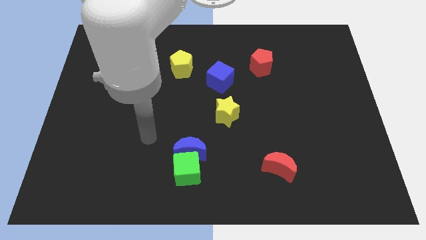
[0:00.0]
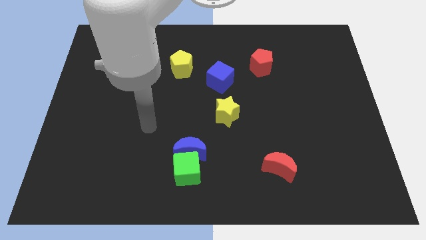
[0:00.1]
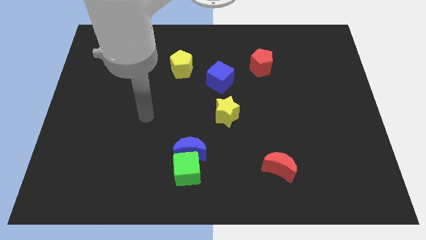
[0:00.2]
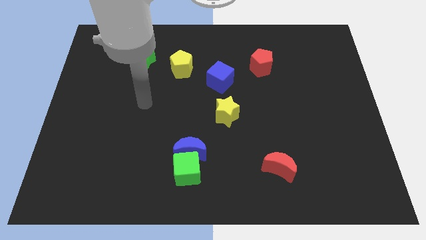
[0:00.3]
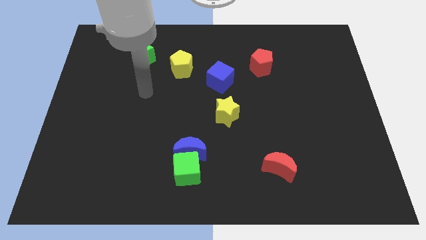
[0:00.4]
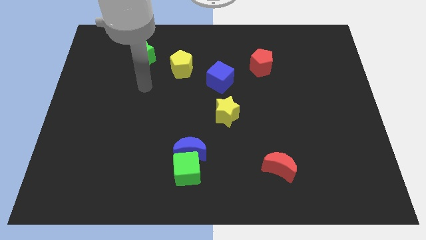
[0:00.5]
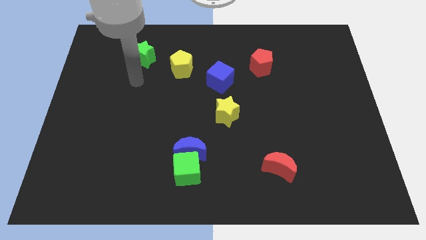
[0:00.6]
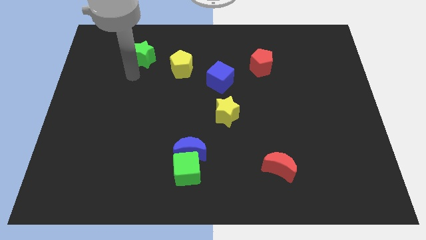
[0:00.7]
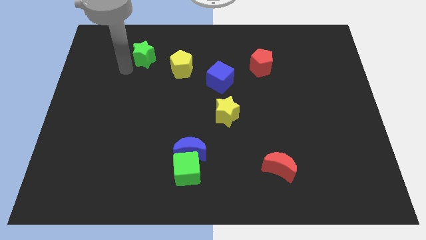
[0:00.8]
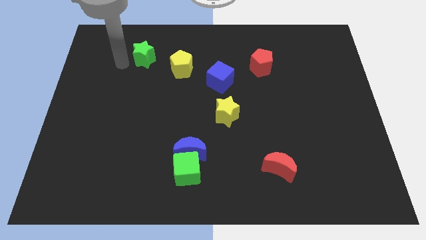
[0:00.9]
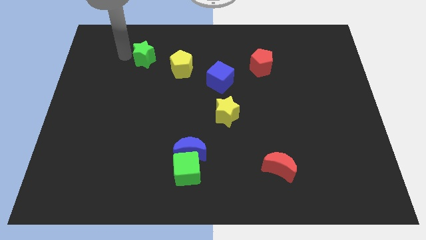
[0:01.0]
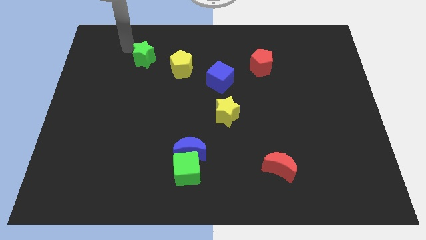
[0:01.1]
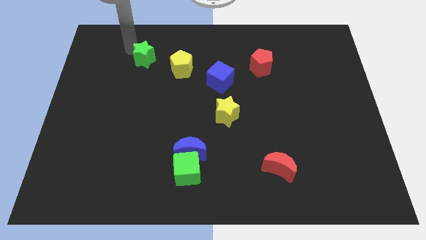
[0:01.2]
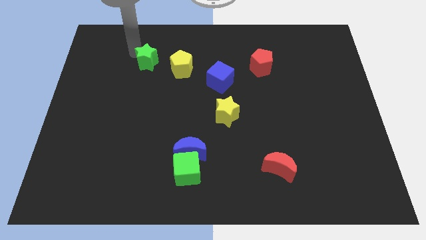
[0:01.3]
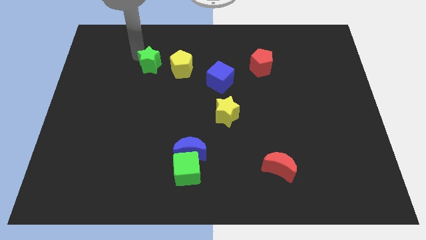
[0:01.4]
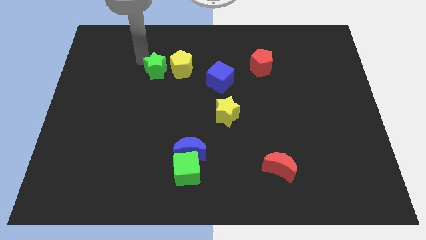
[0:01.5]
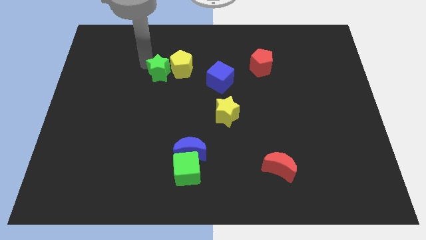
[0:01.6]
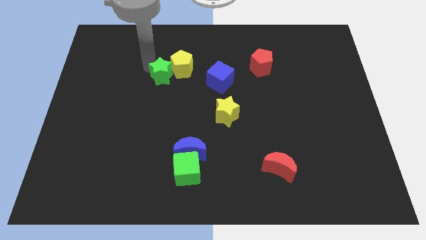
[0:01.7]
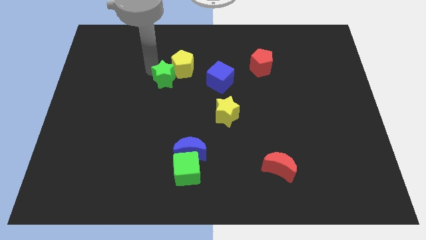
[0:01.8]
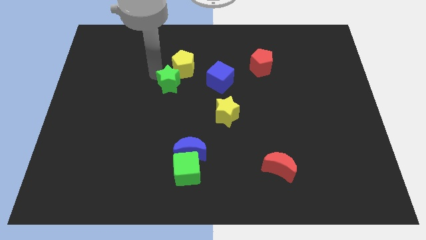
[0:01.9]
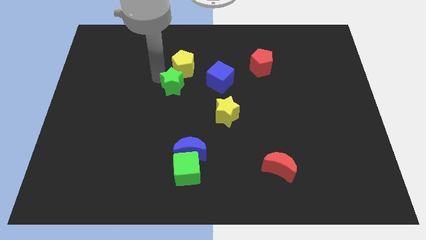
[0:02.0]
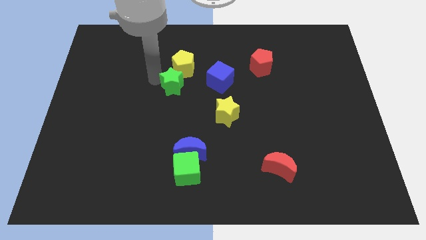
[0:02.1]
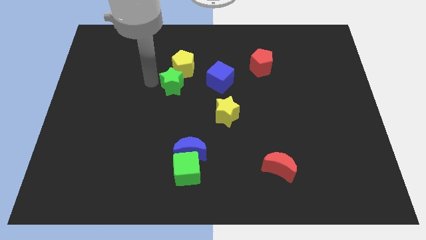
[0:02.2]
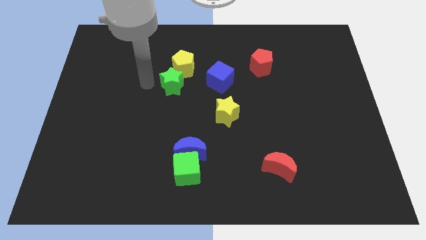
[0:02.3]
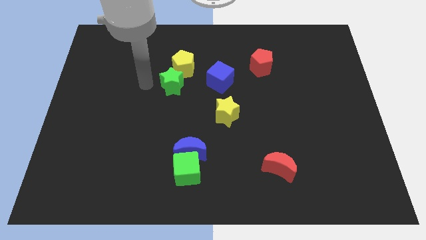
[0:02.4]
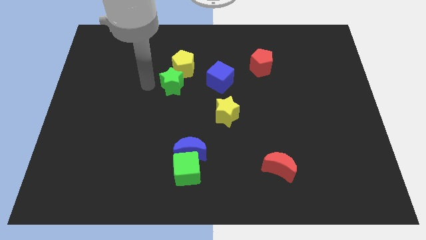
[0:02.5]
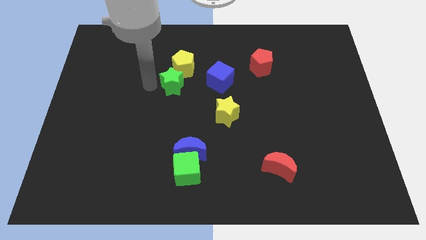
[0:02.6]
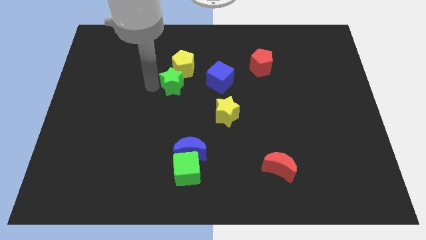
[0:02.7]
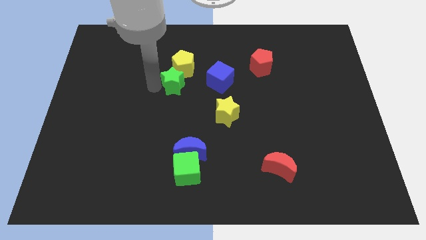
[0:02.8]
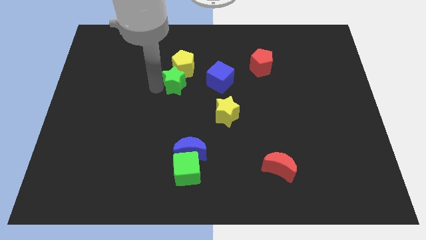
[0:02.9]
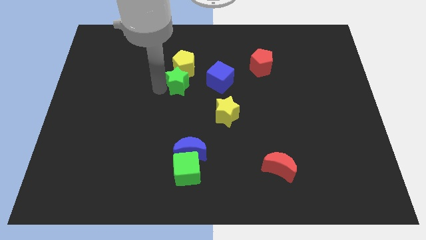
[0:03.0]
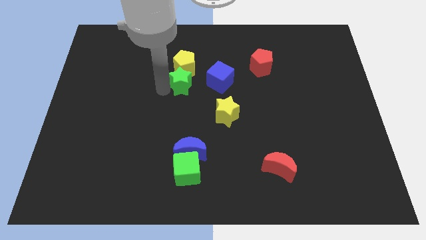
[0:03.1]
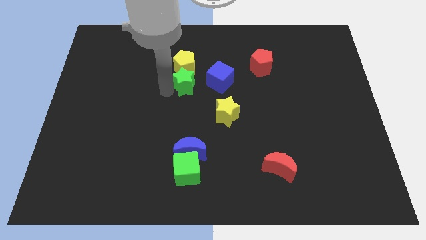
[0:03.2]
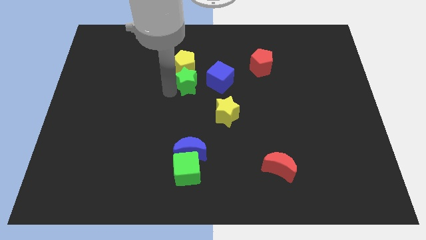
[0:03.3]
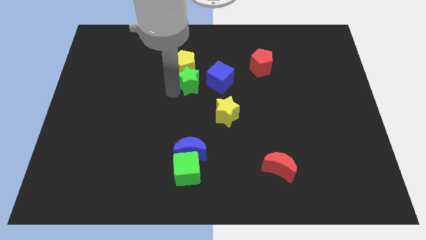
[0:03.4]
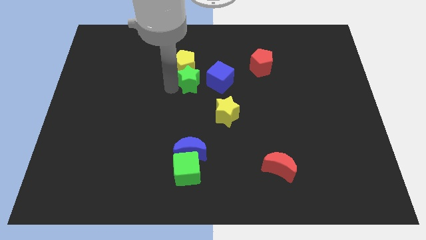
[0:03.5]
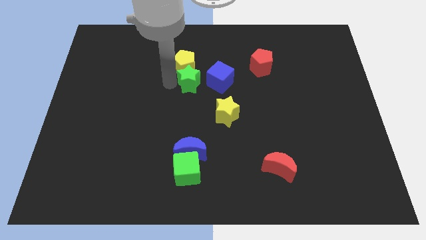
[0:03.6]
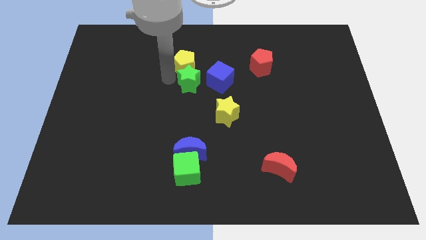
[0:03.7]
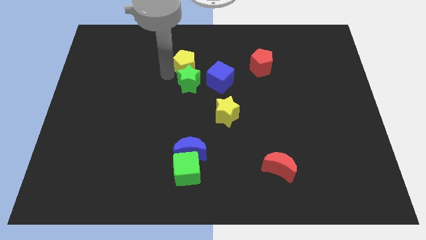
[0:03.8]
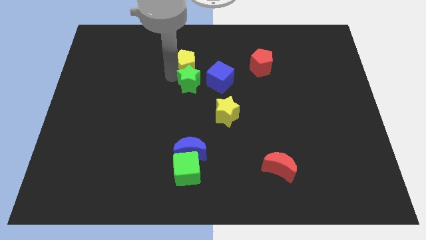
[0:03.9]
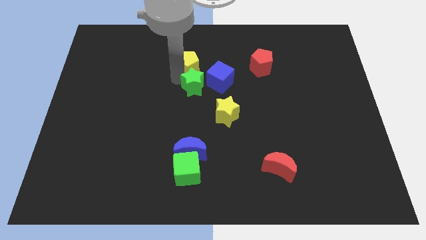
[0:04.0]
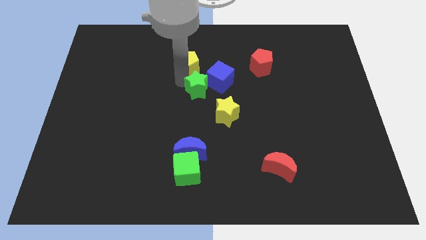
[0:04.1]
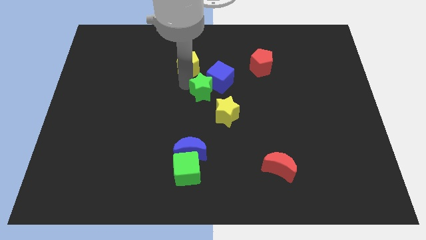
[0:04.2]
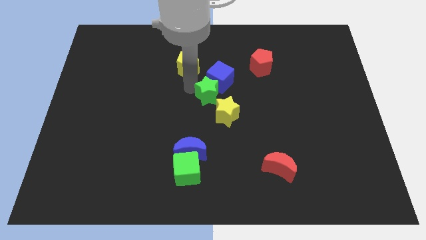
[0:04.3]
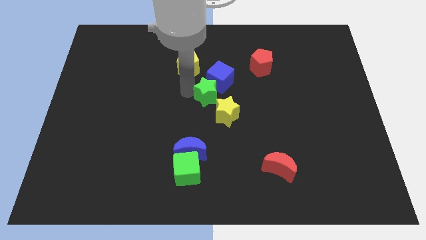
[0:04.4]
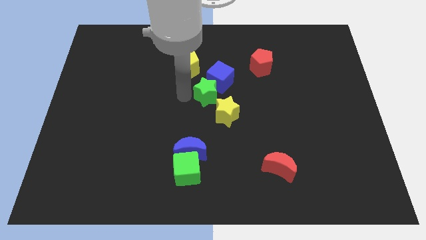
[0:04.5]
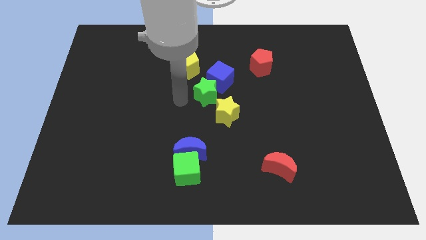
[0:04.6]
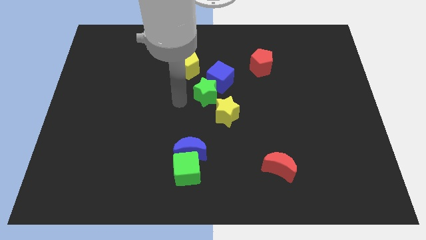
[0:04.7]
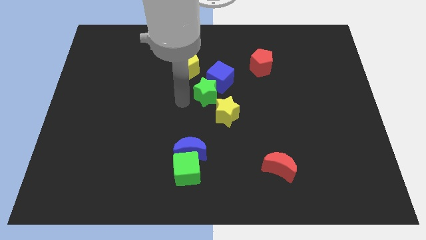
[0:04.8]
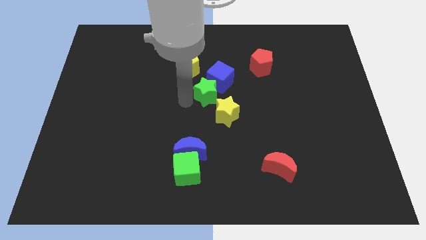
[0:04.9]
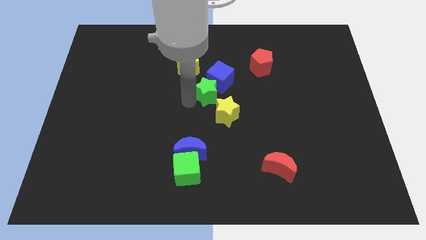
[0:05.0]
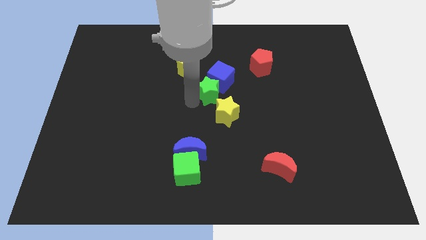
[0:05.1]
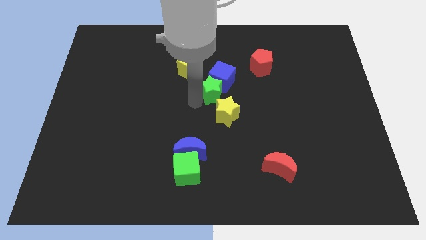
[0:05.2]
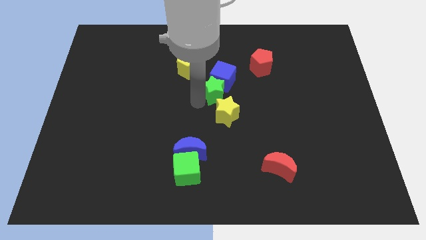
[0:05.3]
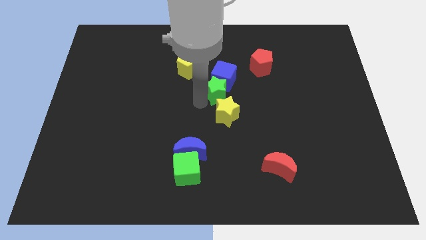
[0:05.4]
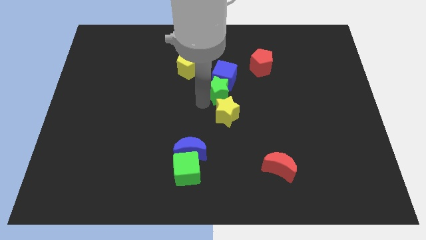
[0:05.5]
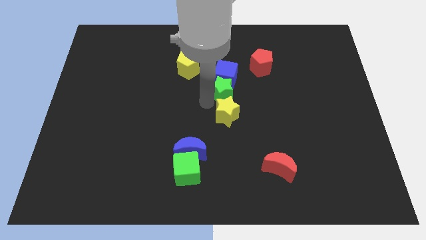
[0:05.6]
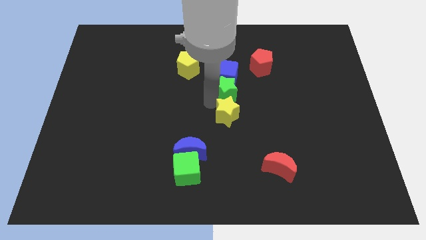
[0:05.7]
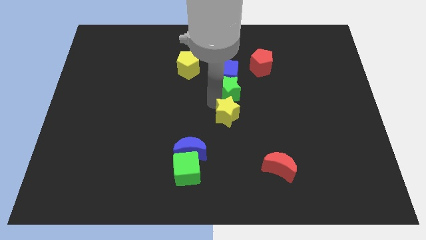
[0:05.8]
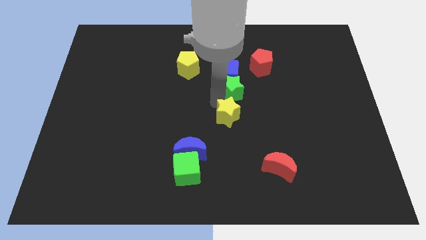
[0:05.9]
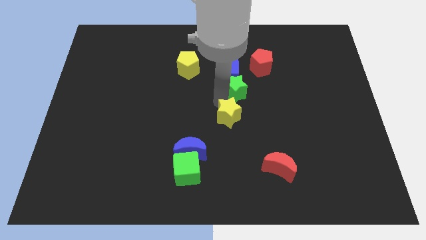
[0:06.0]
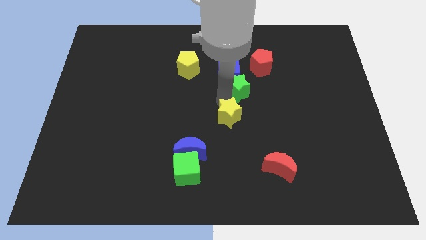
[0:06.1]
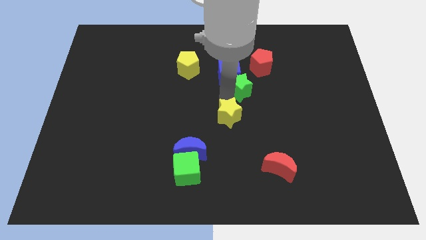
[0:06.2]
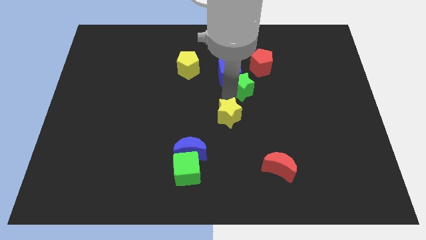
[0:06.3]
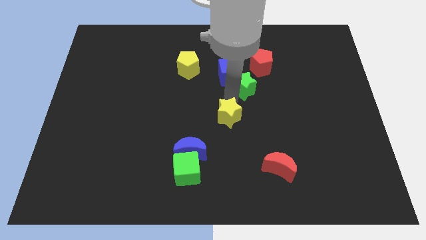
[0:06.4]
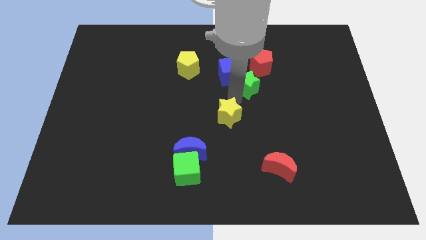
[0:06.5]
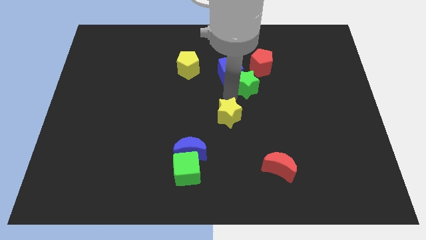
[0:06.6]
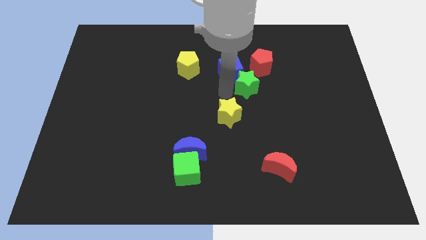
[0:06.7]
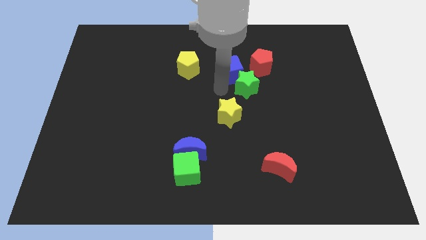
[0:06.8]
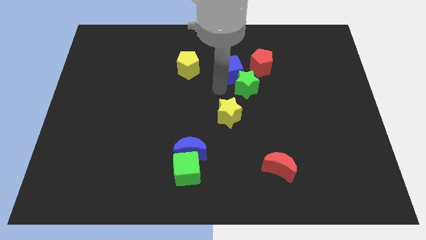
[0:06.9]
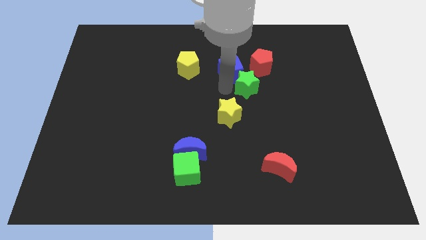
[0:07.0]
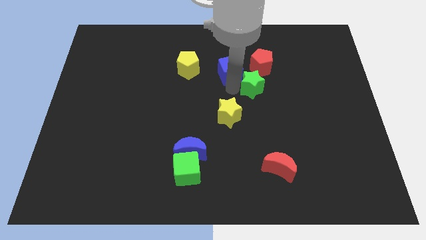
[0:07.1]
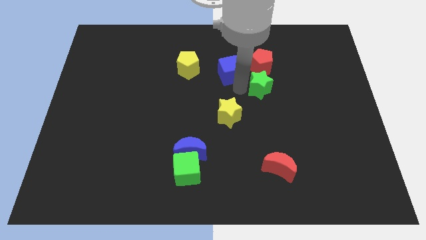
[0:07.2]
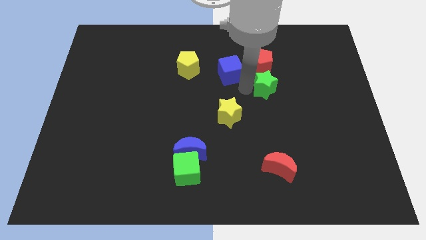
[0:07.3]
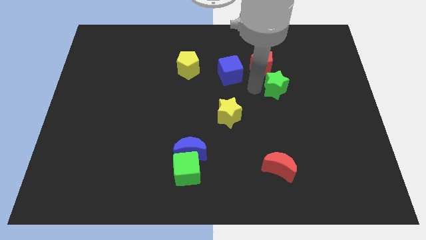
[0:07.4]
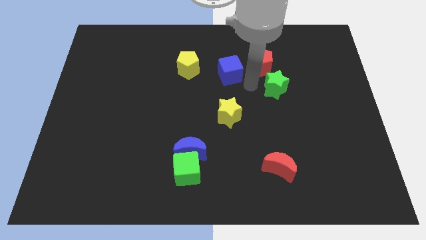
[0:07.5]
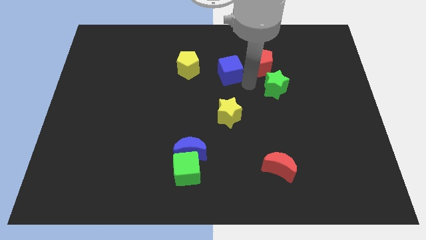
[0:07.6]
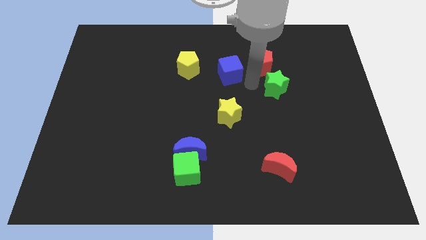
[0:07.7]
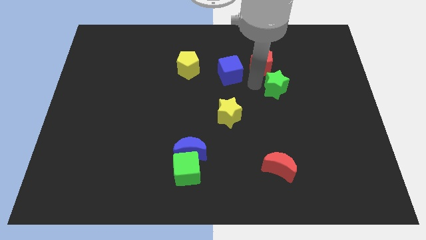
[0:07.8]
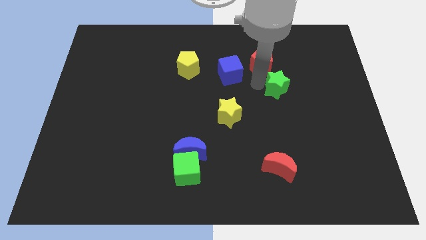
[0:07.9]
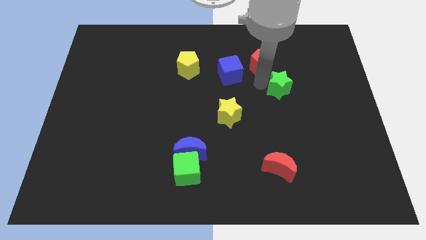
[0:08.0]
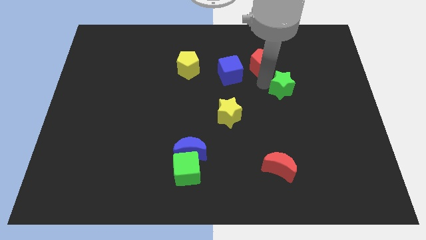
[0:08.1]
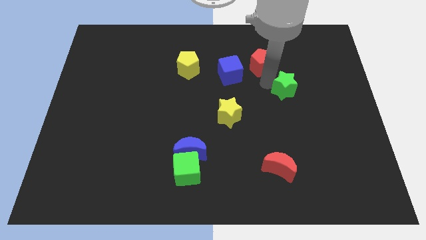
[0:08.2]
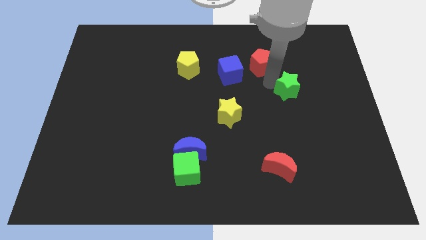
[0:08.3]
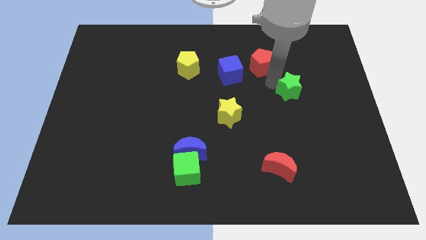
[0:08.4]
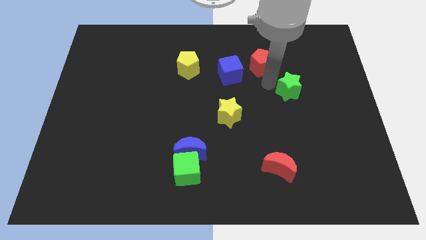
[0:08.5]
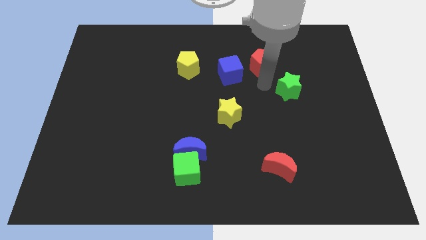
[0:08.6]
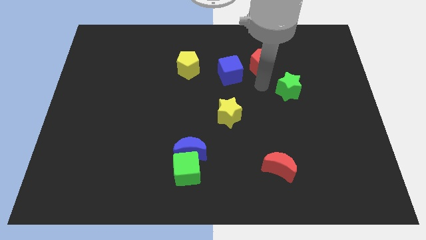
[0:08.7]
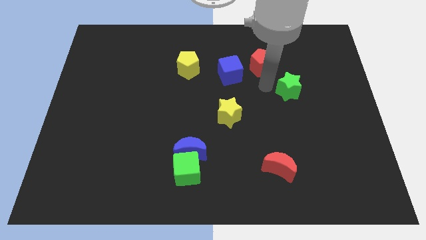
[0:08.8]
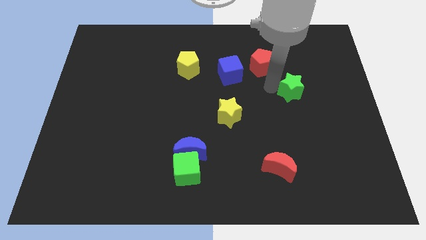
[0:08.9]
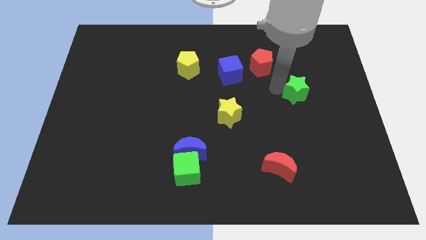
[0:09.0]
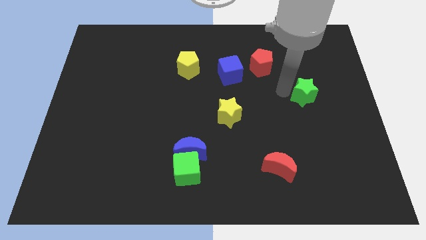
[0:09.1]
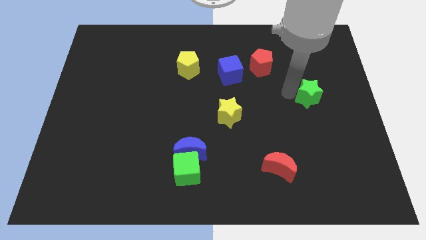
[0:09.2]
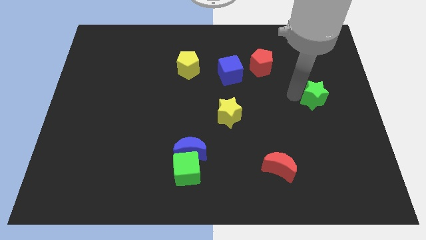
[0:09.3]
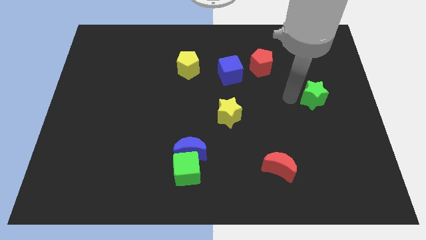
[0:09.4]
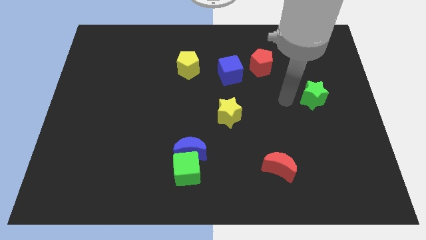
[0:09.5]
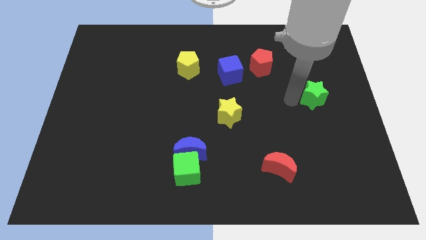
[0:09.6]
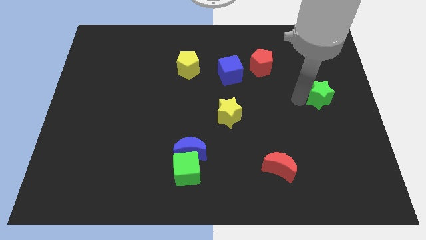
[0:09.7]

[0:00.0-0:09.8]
push the green star to the center right
